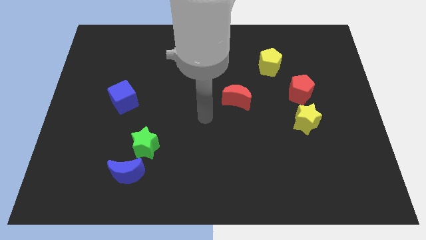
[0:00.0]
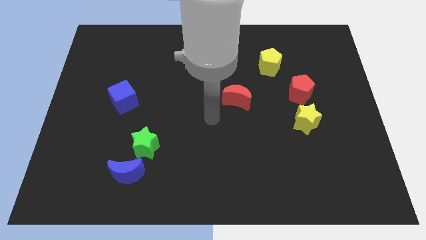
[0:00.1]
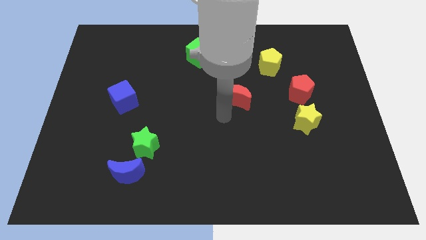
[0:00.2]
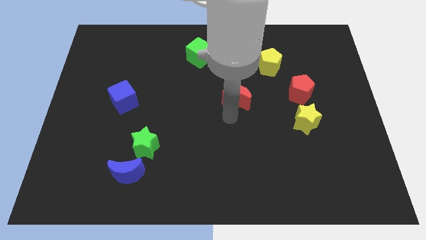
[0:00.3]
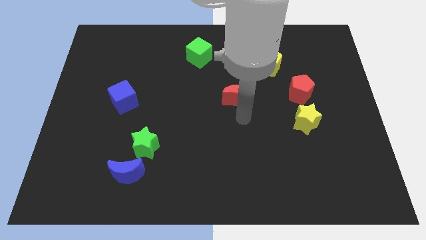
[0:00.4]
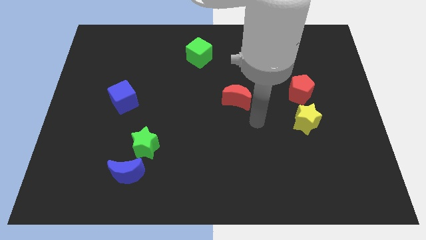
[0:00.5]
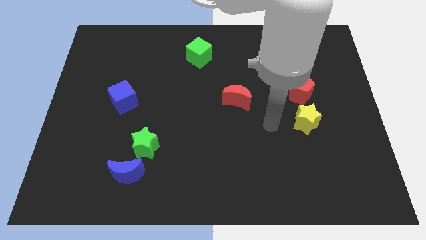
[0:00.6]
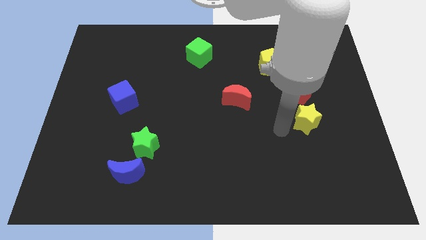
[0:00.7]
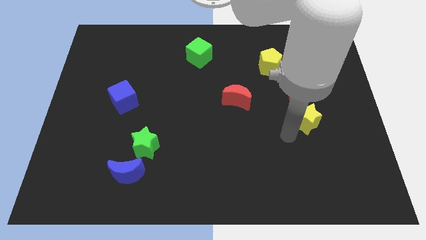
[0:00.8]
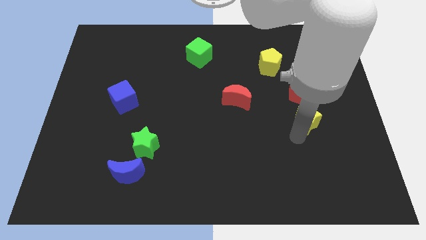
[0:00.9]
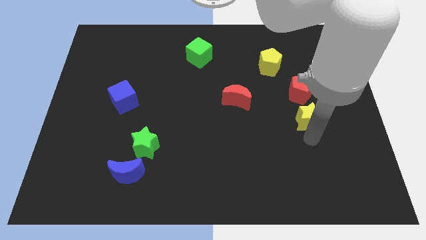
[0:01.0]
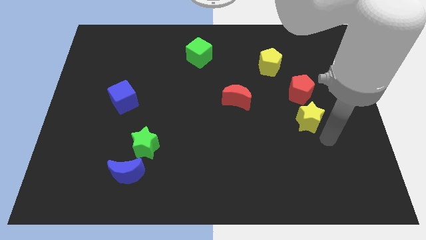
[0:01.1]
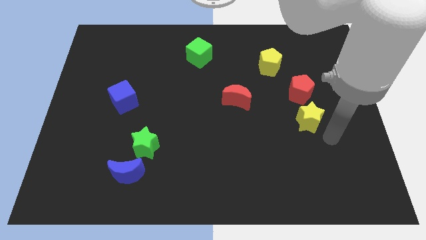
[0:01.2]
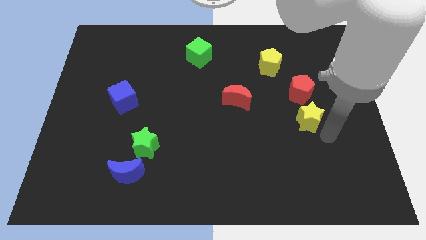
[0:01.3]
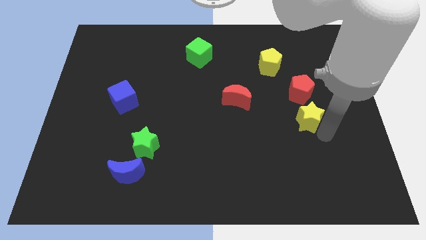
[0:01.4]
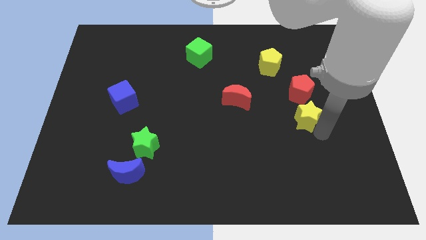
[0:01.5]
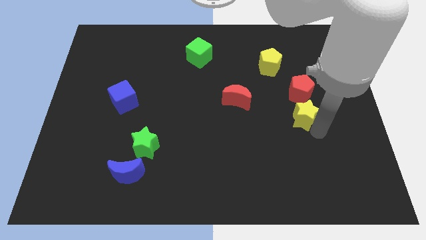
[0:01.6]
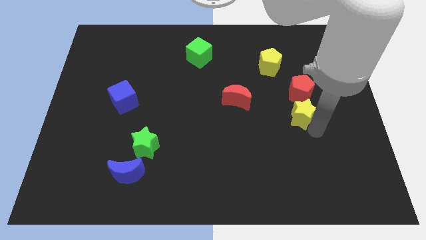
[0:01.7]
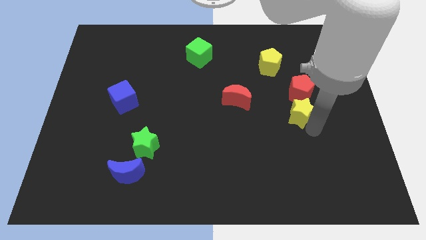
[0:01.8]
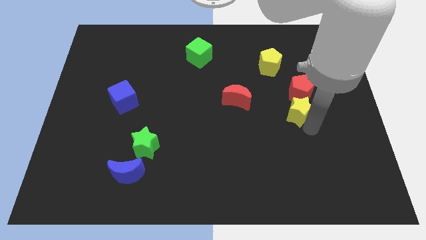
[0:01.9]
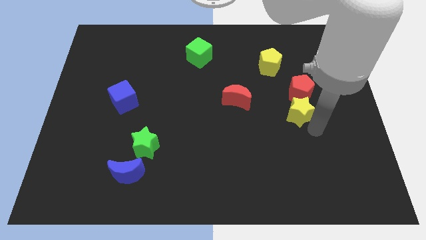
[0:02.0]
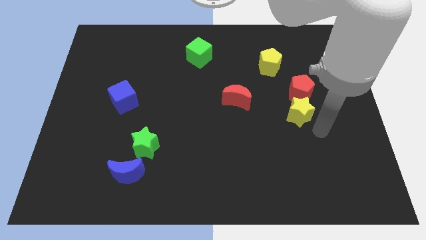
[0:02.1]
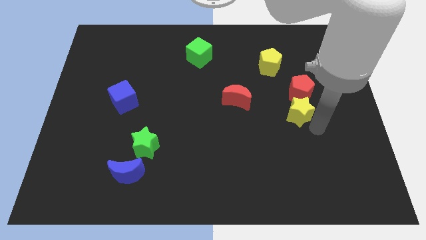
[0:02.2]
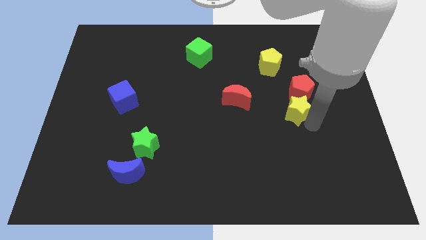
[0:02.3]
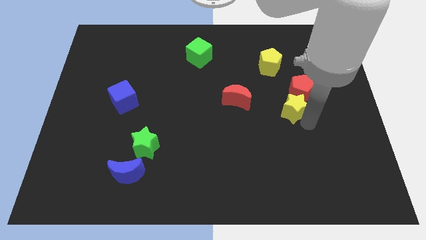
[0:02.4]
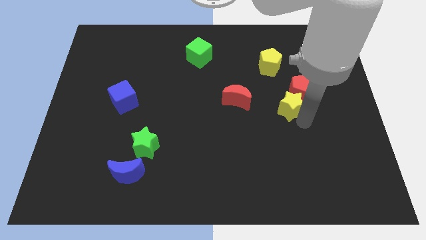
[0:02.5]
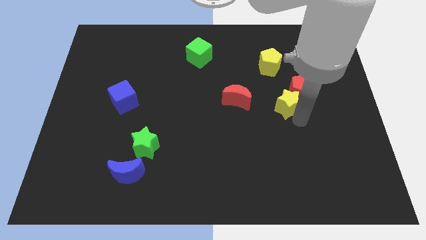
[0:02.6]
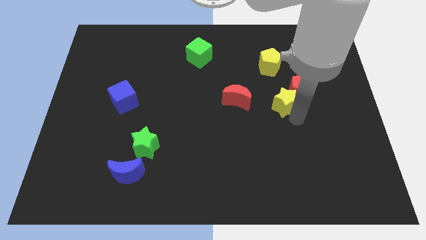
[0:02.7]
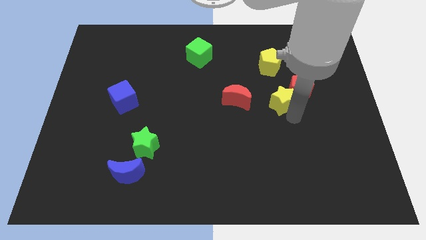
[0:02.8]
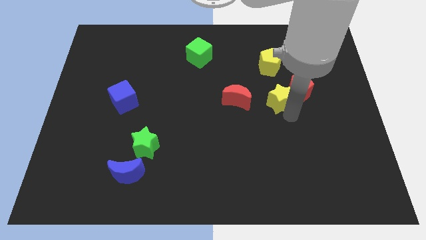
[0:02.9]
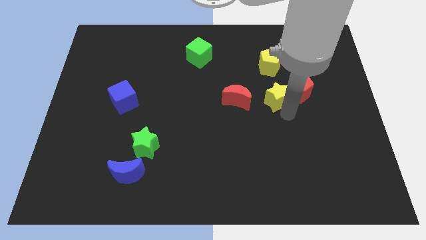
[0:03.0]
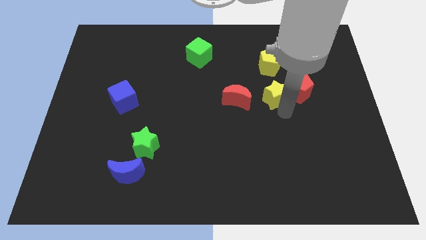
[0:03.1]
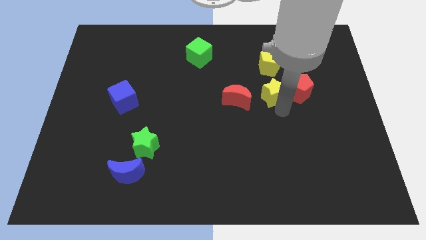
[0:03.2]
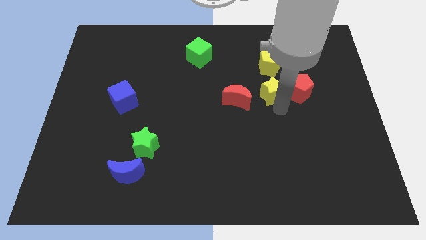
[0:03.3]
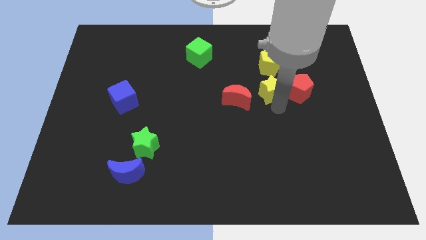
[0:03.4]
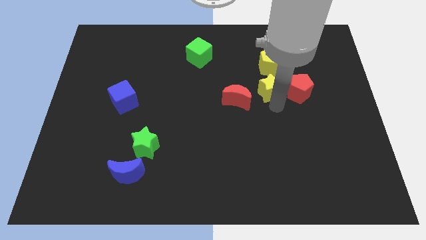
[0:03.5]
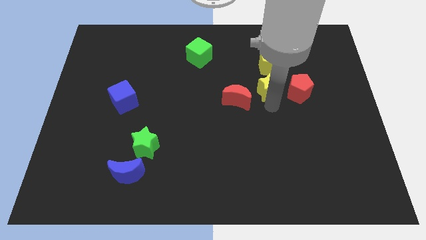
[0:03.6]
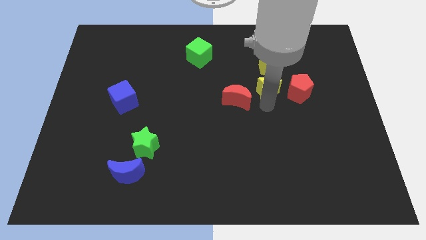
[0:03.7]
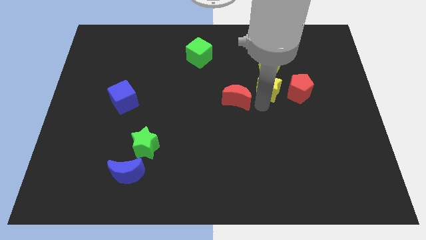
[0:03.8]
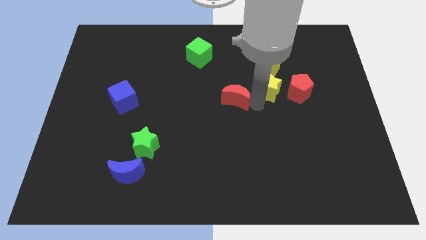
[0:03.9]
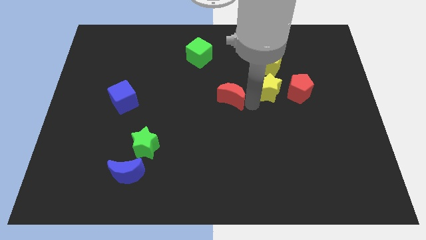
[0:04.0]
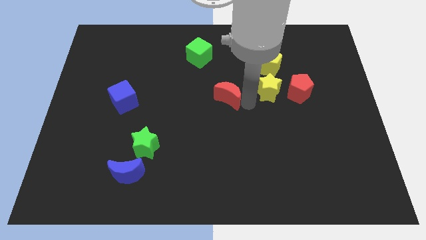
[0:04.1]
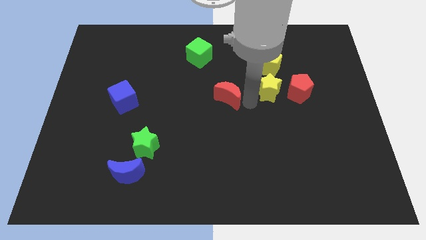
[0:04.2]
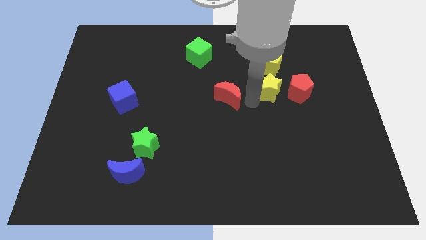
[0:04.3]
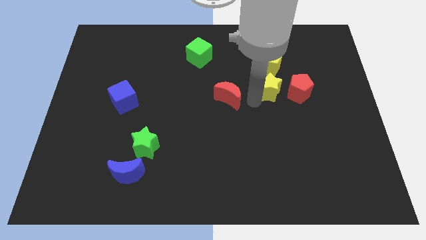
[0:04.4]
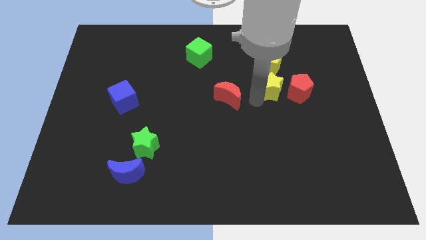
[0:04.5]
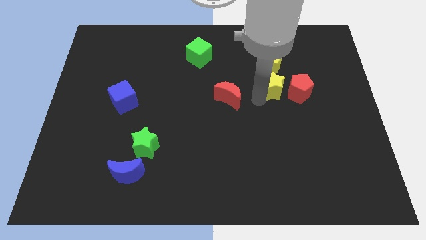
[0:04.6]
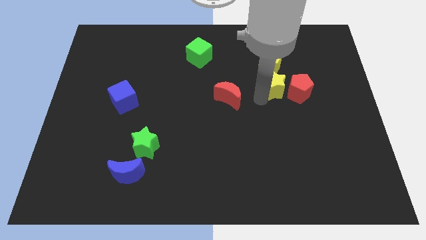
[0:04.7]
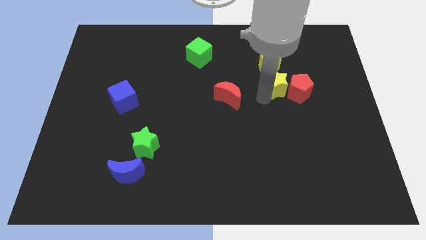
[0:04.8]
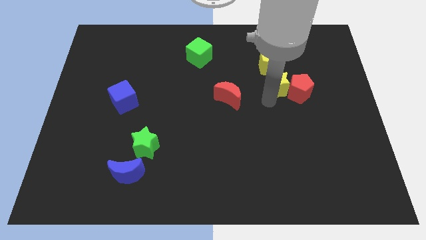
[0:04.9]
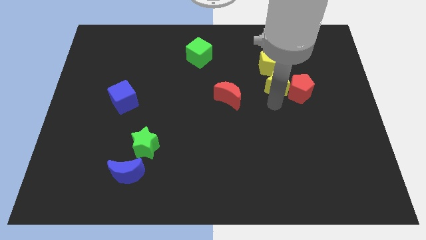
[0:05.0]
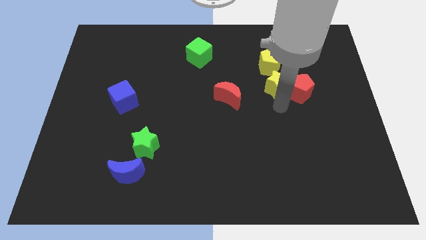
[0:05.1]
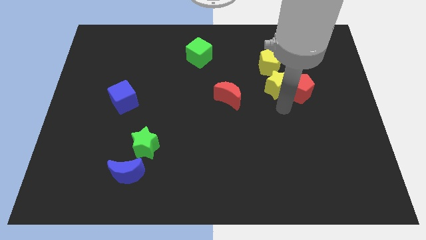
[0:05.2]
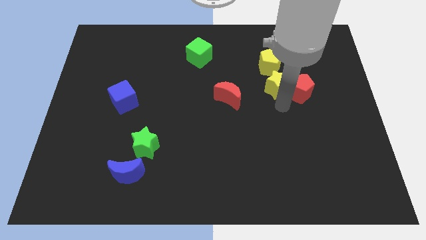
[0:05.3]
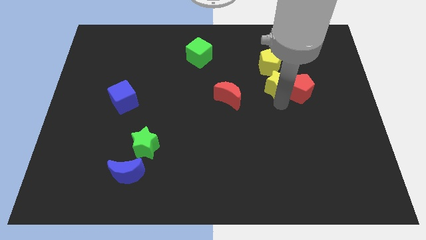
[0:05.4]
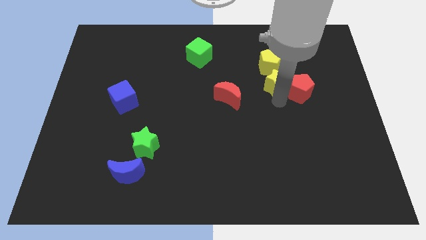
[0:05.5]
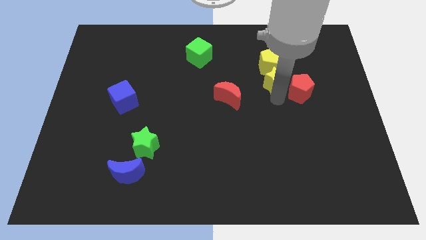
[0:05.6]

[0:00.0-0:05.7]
slide the yellow star close to the yellow pentagon

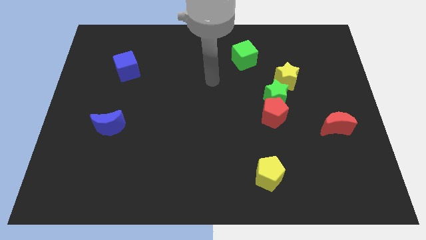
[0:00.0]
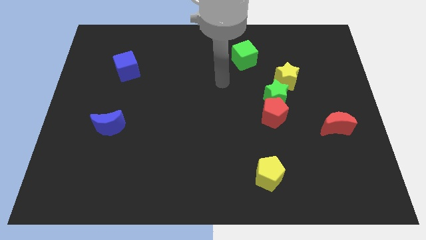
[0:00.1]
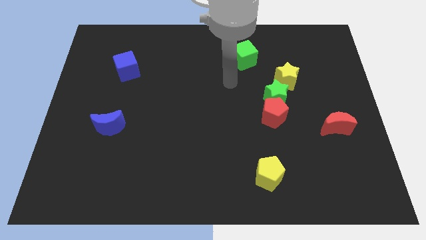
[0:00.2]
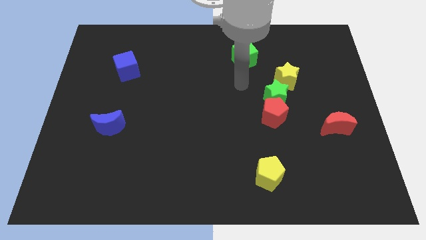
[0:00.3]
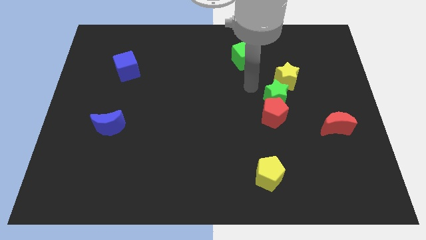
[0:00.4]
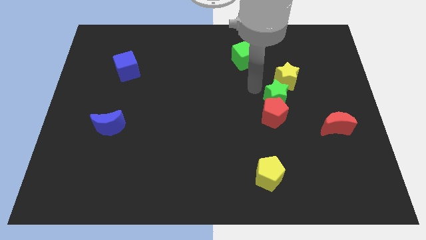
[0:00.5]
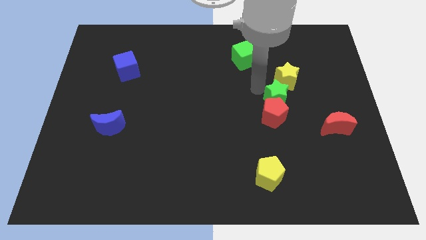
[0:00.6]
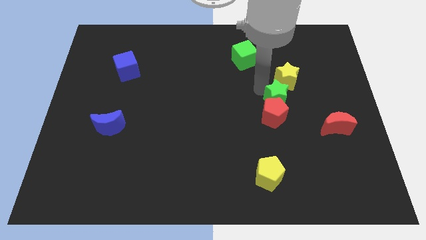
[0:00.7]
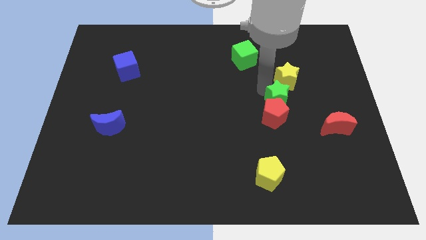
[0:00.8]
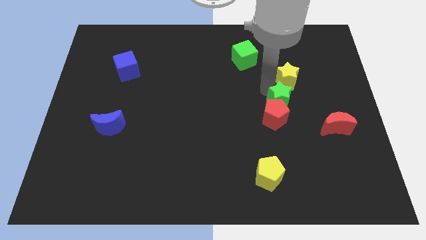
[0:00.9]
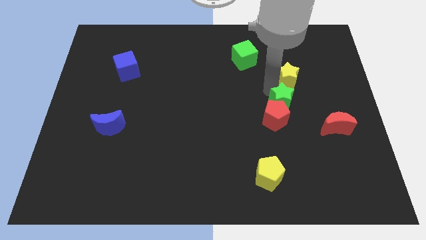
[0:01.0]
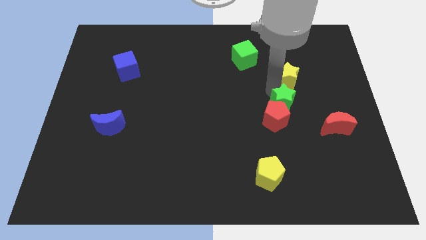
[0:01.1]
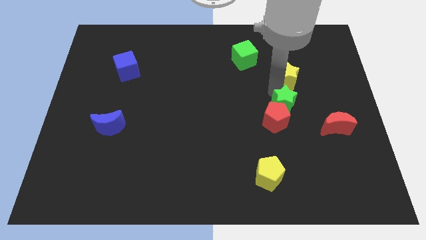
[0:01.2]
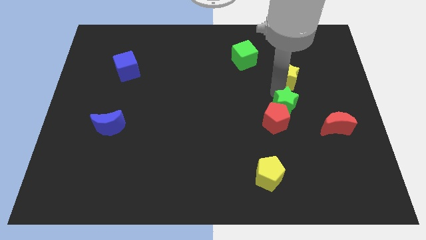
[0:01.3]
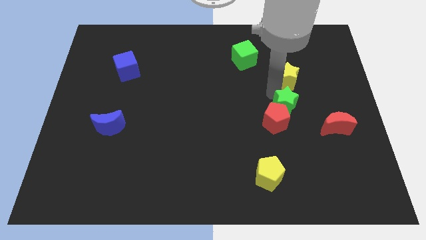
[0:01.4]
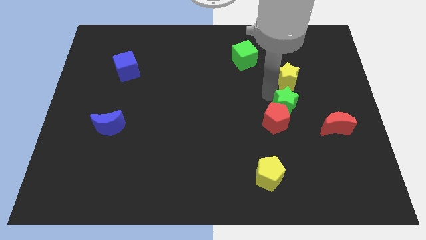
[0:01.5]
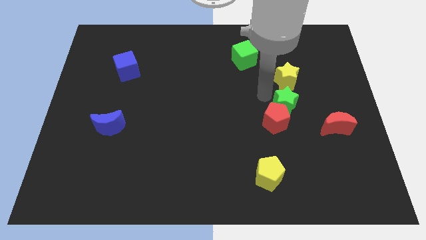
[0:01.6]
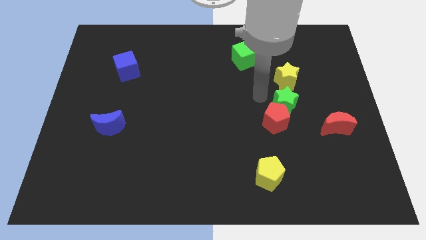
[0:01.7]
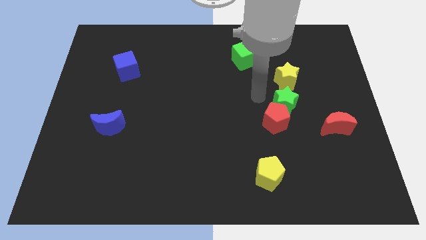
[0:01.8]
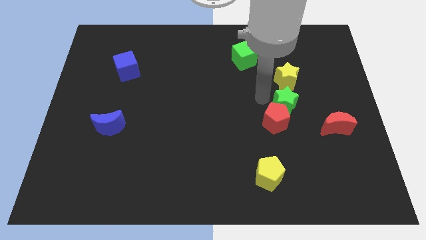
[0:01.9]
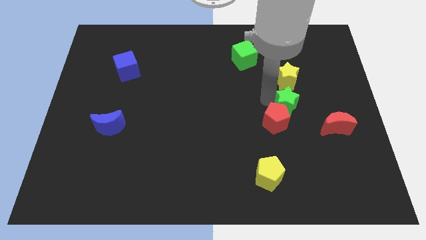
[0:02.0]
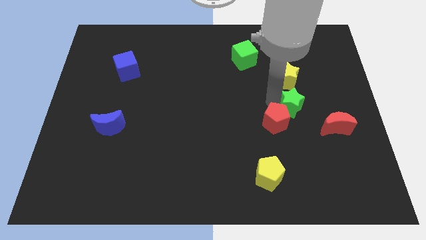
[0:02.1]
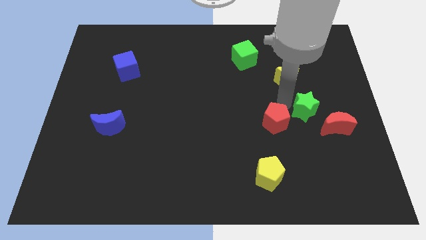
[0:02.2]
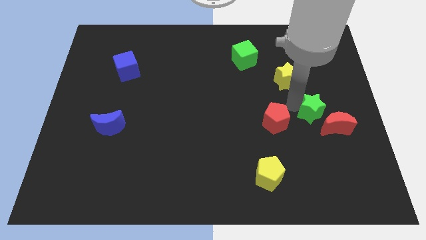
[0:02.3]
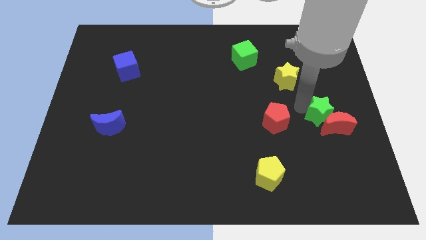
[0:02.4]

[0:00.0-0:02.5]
put the green star towards the red moon
